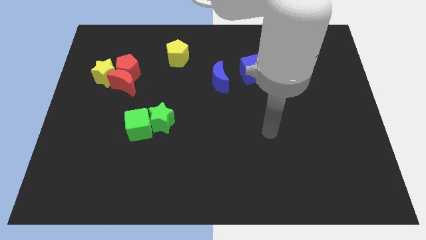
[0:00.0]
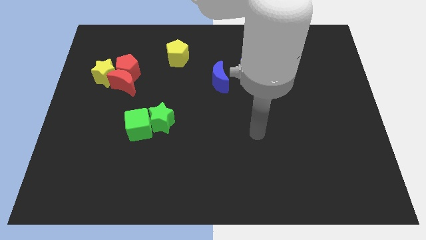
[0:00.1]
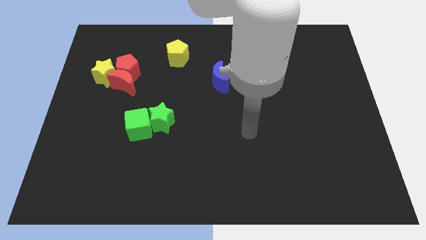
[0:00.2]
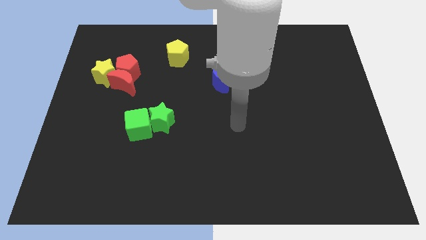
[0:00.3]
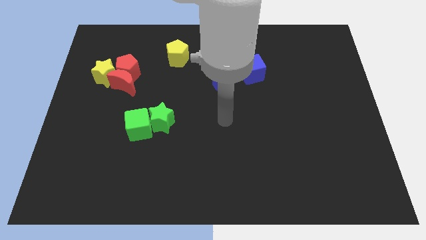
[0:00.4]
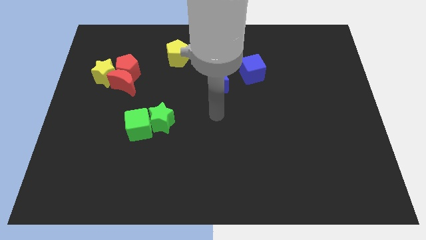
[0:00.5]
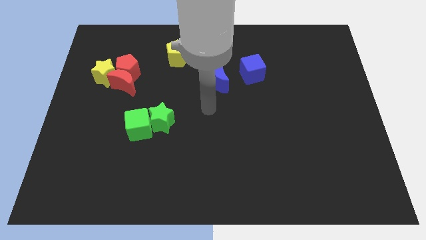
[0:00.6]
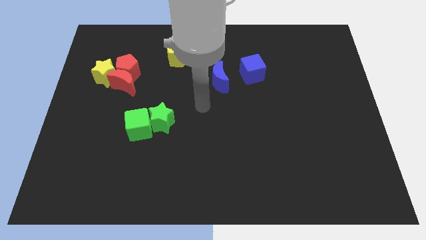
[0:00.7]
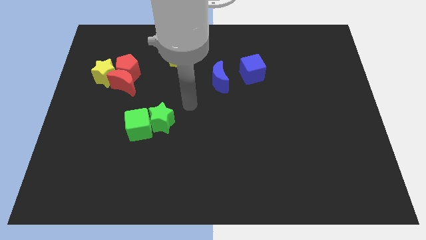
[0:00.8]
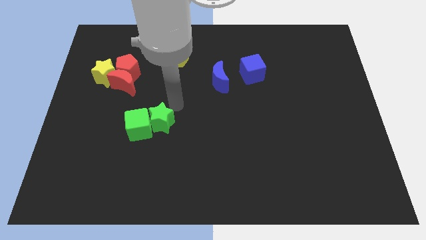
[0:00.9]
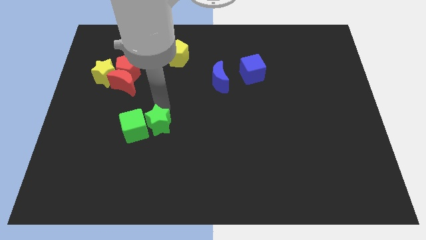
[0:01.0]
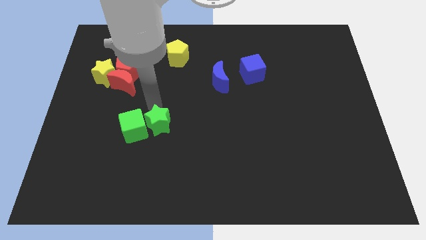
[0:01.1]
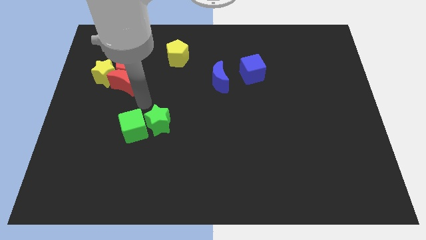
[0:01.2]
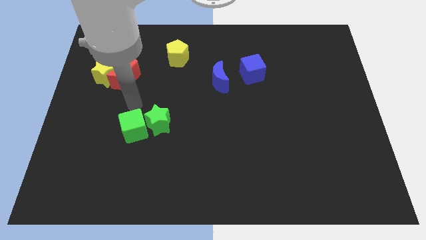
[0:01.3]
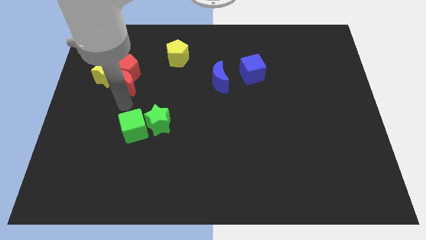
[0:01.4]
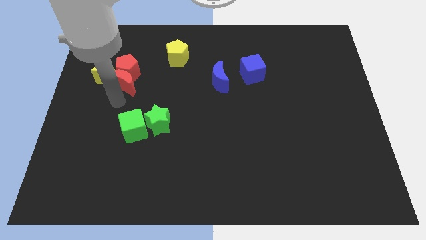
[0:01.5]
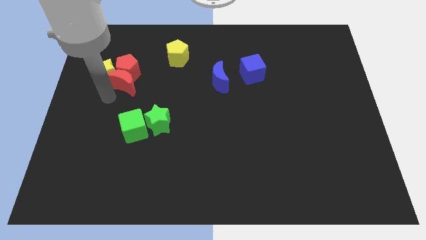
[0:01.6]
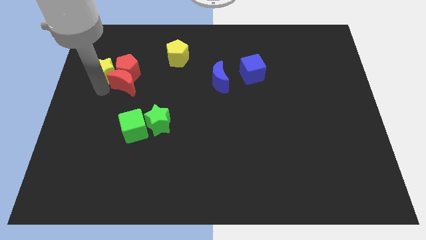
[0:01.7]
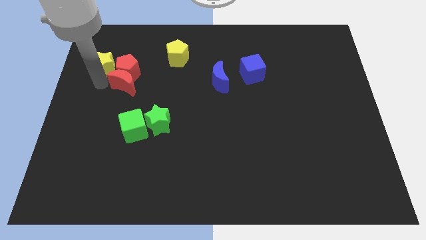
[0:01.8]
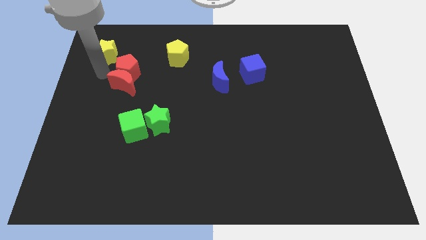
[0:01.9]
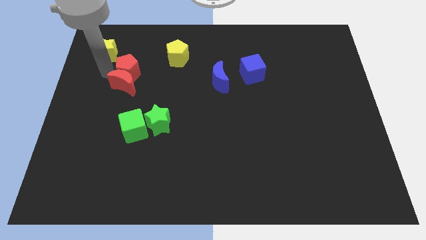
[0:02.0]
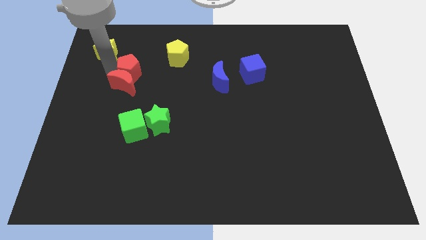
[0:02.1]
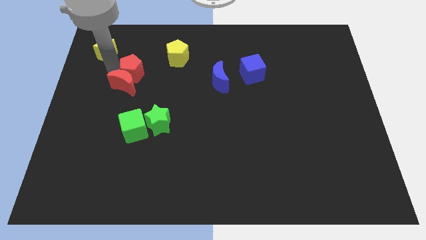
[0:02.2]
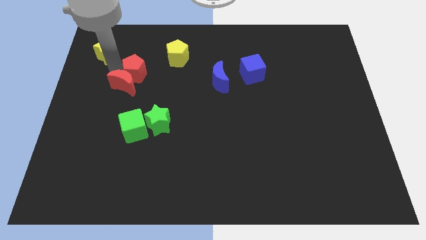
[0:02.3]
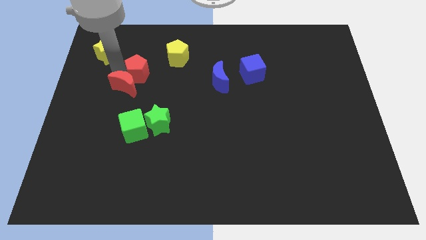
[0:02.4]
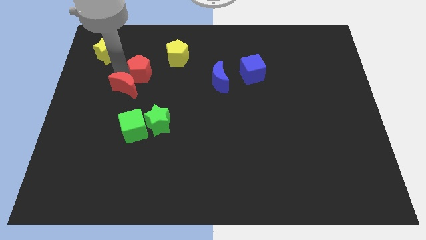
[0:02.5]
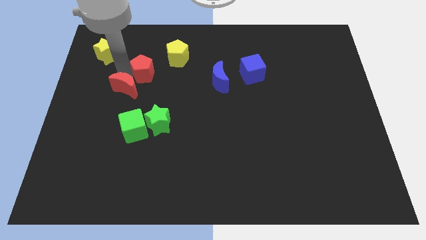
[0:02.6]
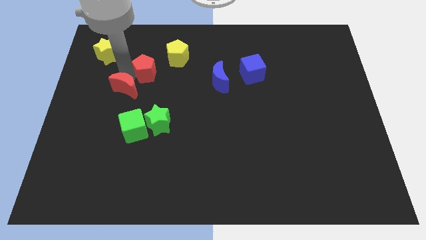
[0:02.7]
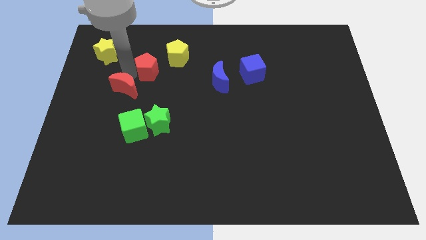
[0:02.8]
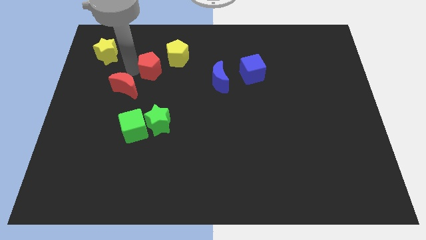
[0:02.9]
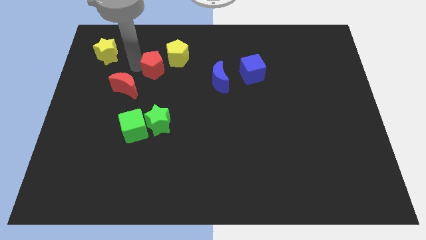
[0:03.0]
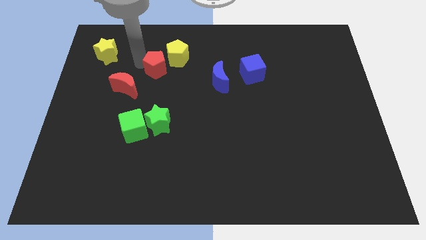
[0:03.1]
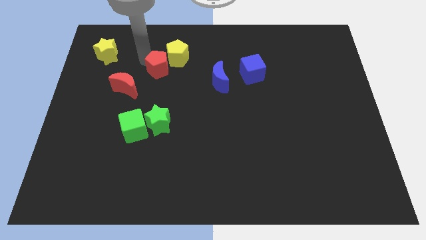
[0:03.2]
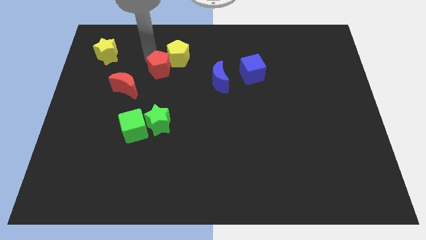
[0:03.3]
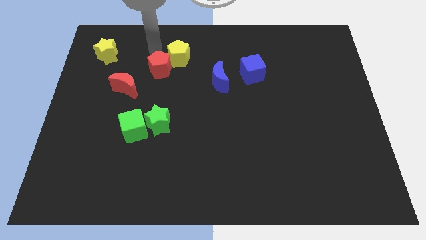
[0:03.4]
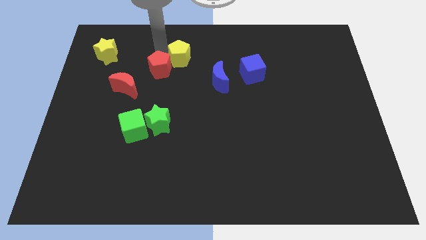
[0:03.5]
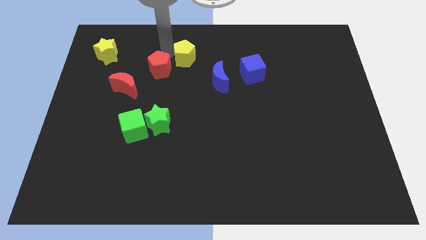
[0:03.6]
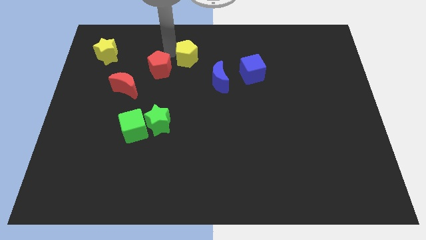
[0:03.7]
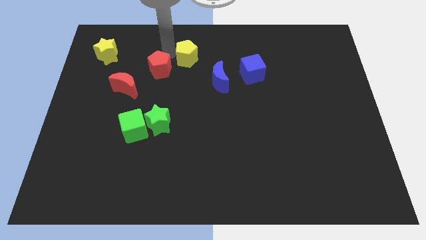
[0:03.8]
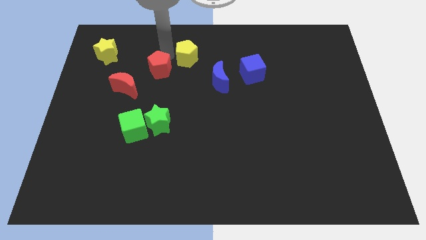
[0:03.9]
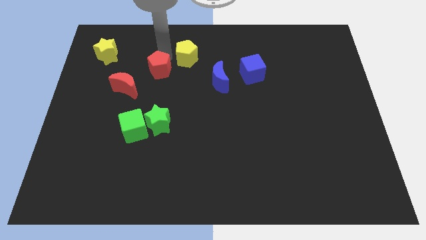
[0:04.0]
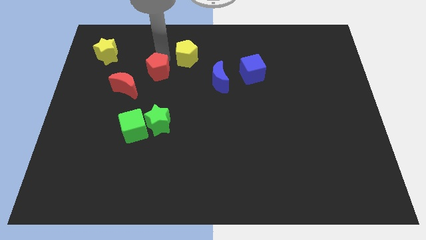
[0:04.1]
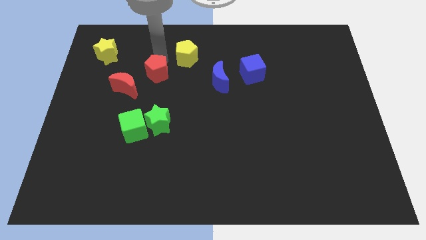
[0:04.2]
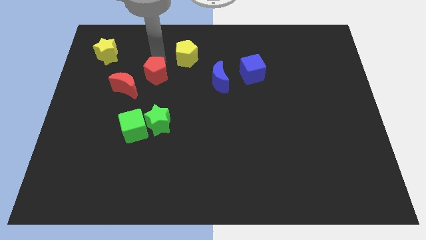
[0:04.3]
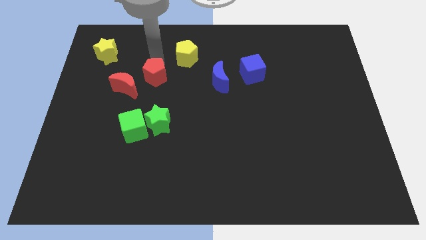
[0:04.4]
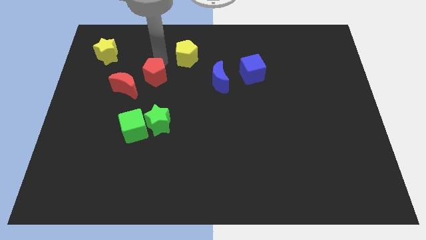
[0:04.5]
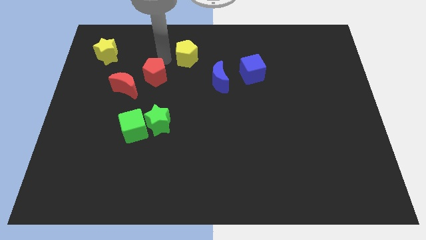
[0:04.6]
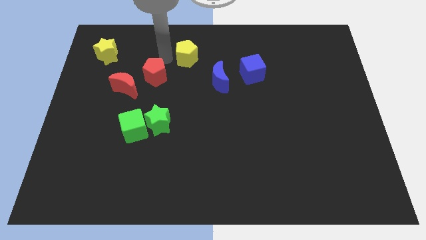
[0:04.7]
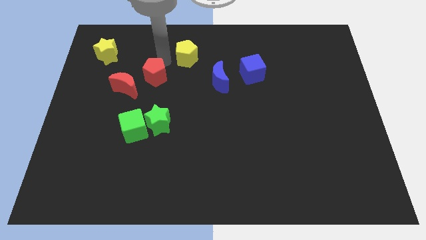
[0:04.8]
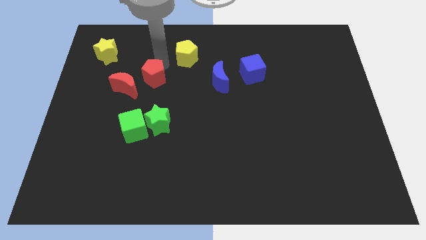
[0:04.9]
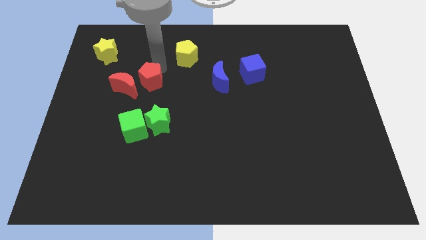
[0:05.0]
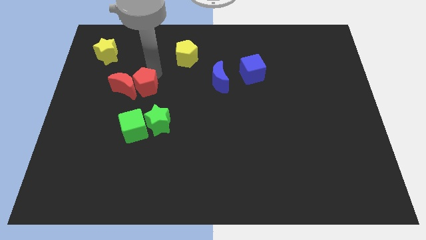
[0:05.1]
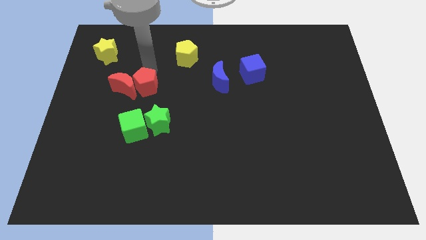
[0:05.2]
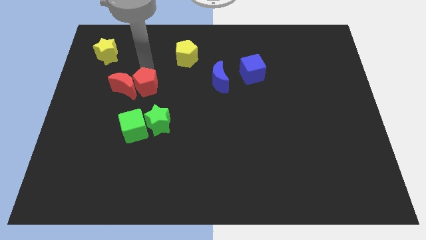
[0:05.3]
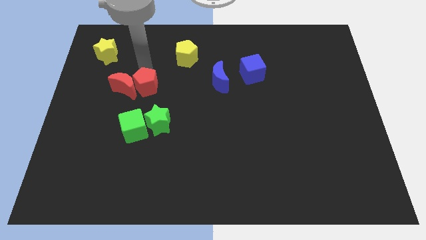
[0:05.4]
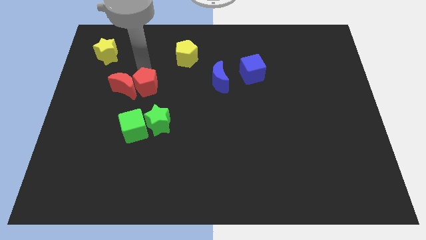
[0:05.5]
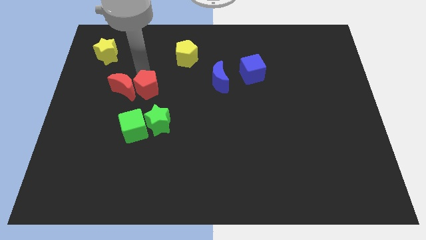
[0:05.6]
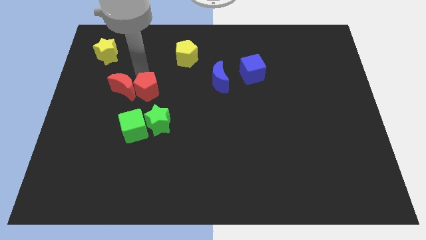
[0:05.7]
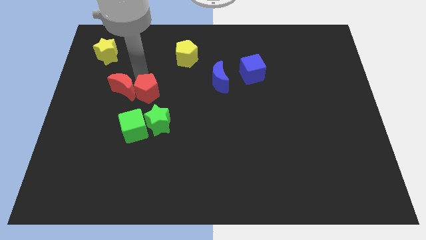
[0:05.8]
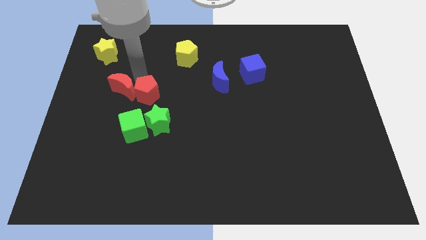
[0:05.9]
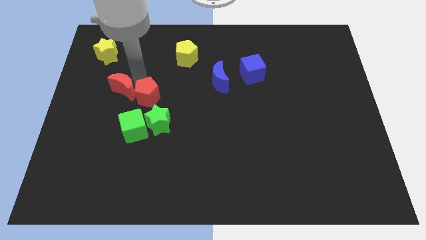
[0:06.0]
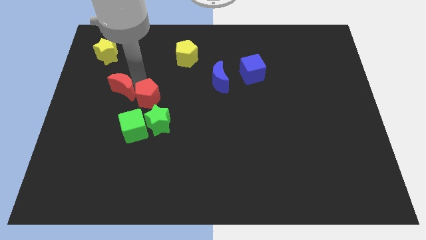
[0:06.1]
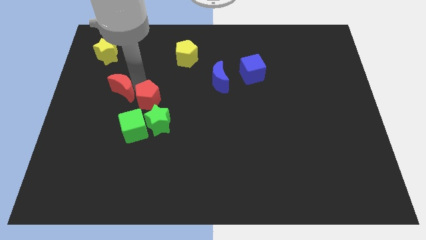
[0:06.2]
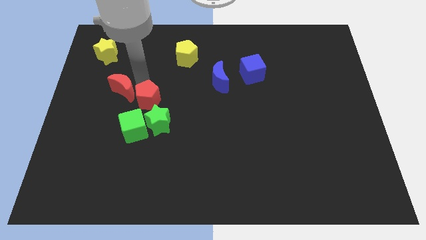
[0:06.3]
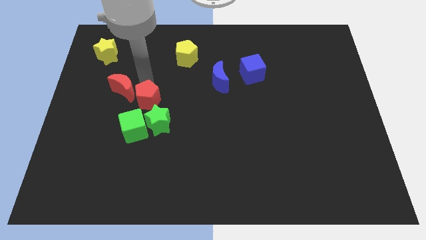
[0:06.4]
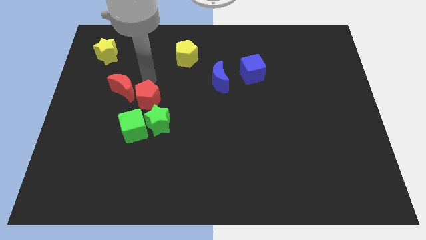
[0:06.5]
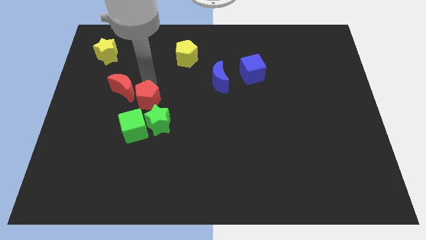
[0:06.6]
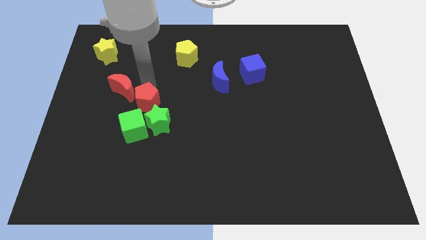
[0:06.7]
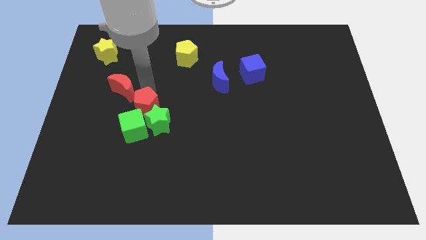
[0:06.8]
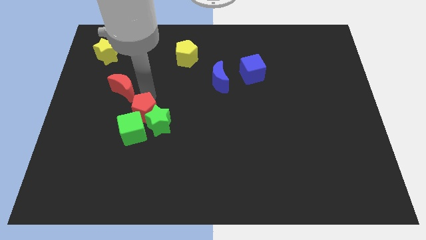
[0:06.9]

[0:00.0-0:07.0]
push the red pentagon next to the green cube
